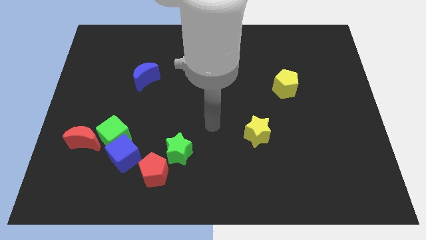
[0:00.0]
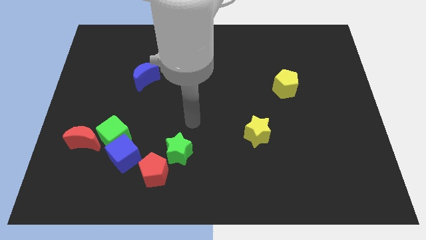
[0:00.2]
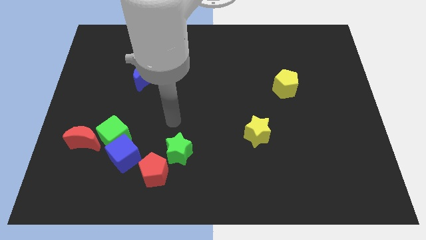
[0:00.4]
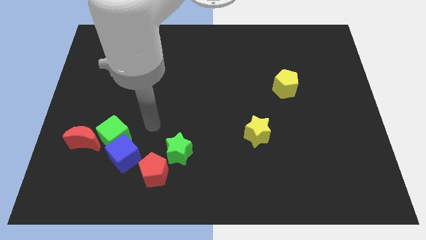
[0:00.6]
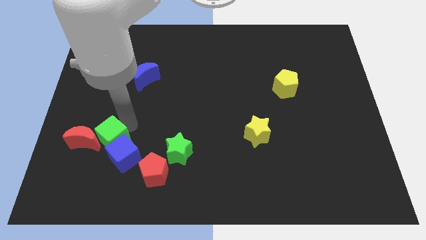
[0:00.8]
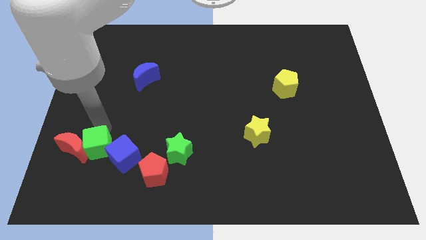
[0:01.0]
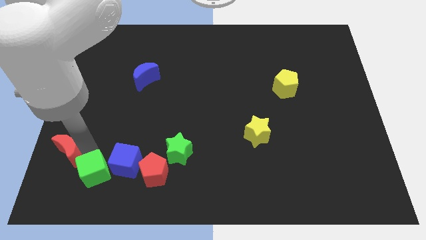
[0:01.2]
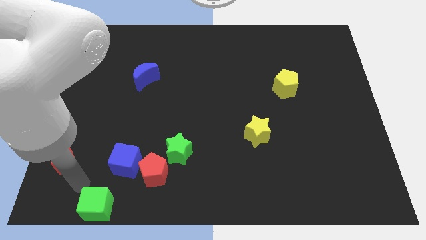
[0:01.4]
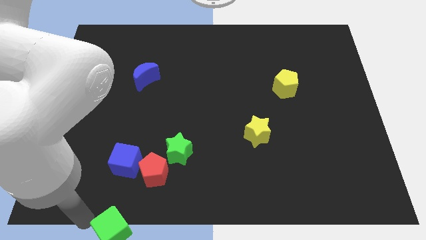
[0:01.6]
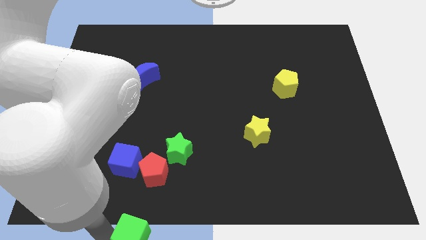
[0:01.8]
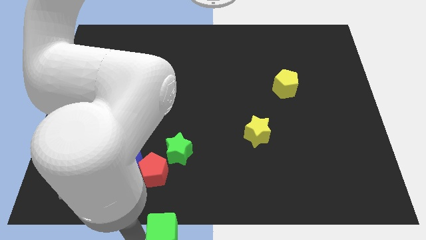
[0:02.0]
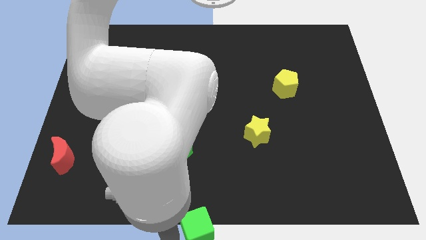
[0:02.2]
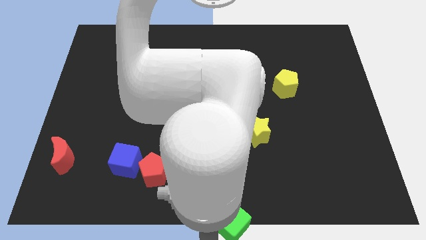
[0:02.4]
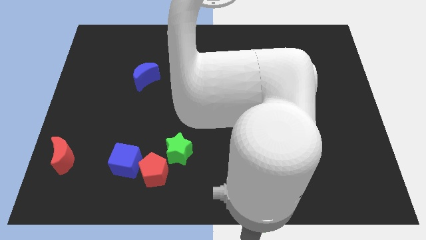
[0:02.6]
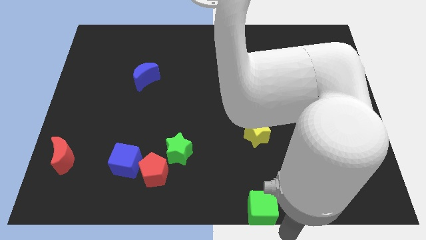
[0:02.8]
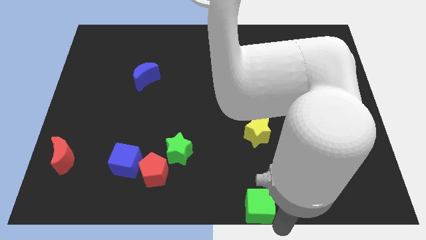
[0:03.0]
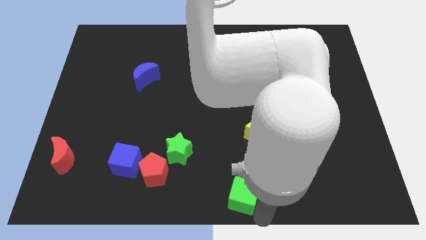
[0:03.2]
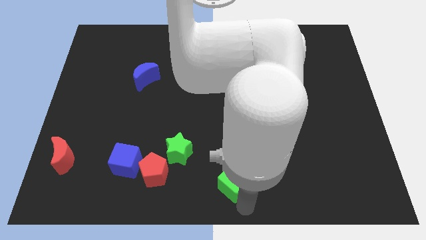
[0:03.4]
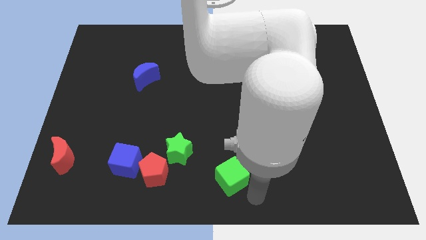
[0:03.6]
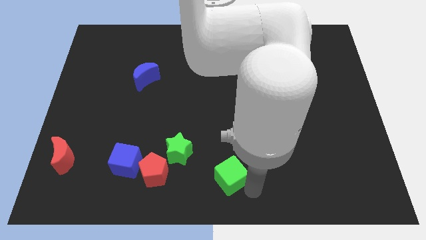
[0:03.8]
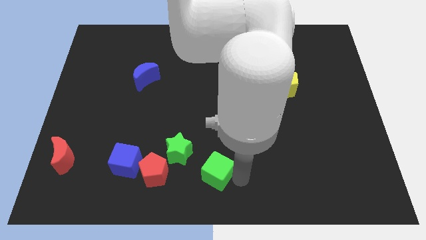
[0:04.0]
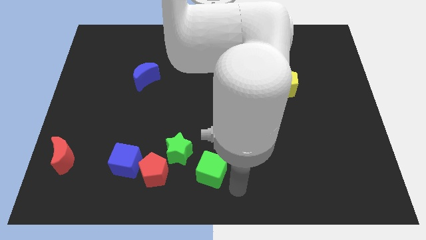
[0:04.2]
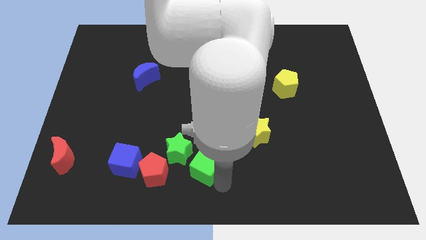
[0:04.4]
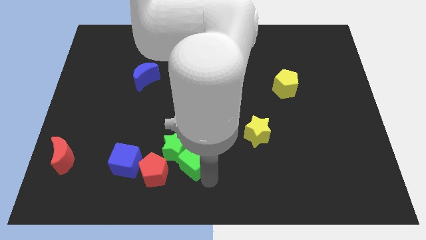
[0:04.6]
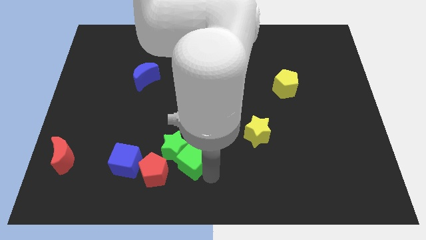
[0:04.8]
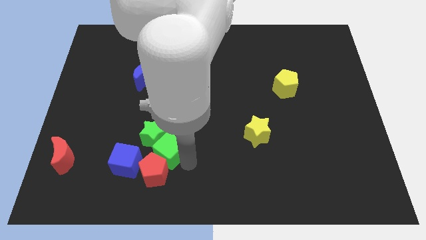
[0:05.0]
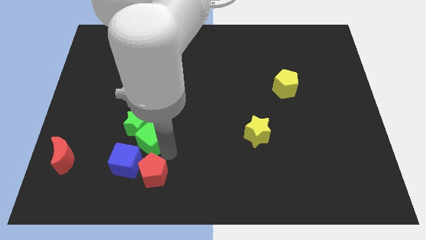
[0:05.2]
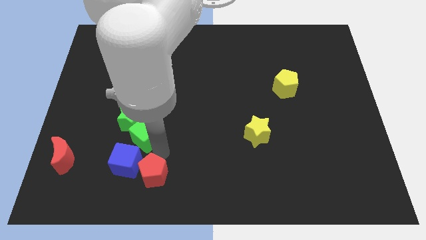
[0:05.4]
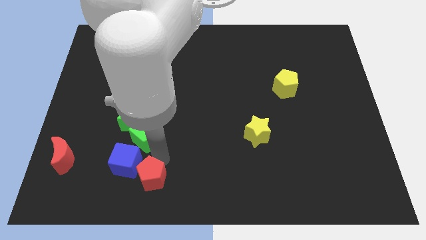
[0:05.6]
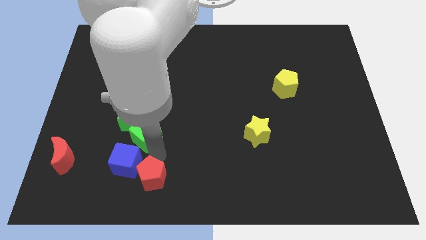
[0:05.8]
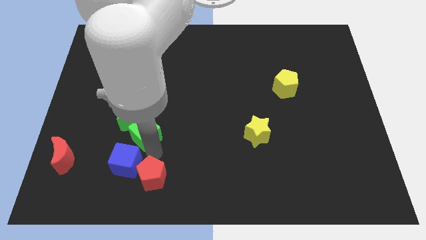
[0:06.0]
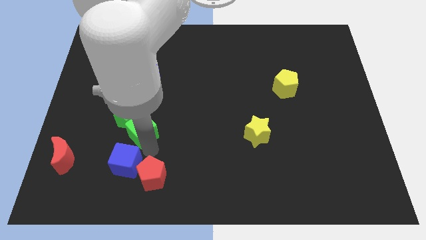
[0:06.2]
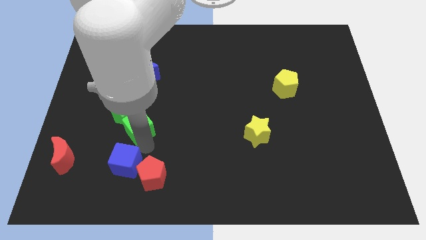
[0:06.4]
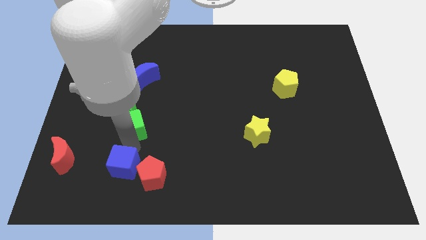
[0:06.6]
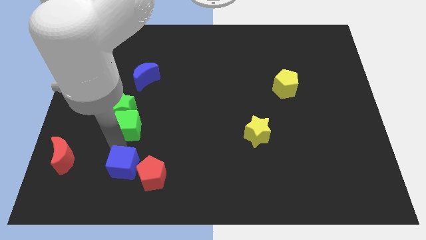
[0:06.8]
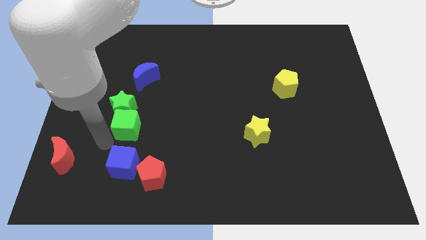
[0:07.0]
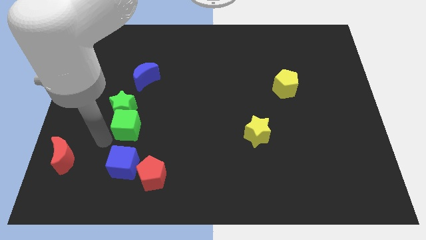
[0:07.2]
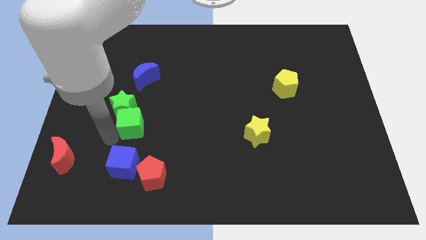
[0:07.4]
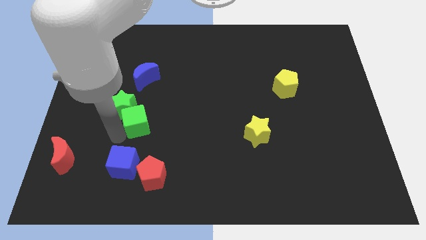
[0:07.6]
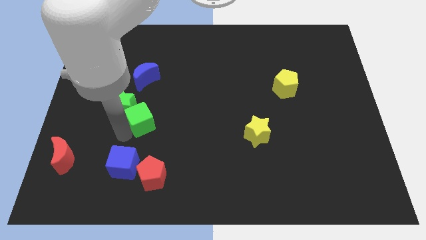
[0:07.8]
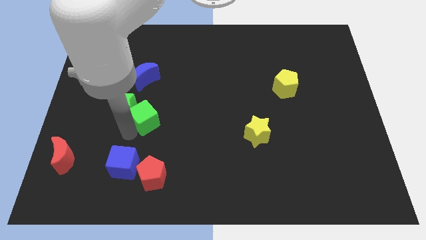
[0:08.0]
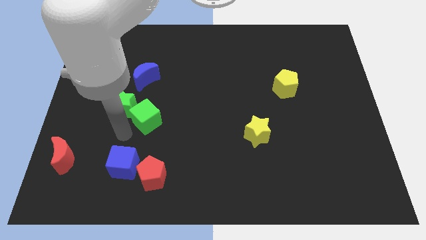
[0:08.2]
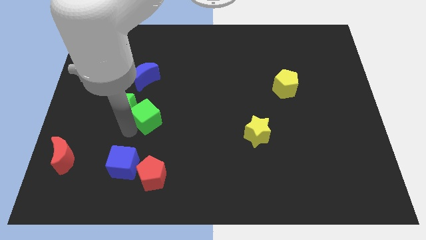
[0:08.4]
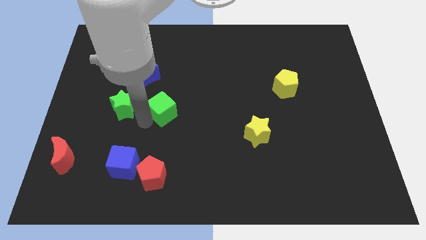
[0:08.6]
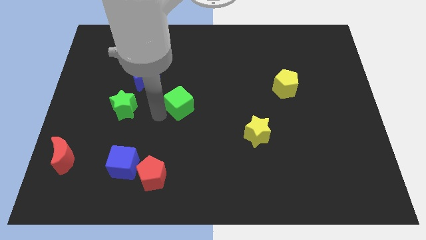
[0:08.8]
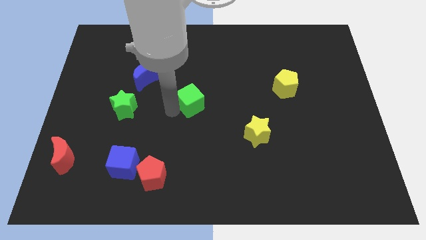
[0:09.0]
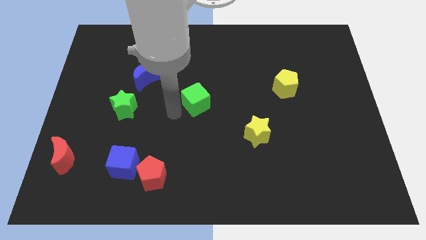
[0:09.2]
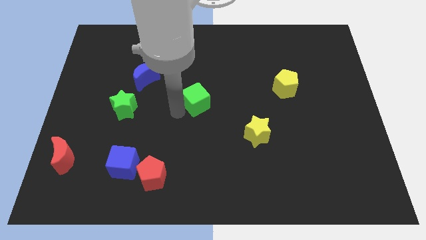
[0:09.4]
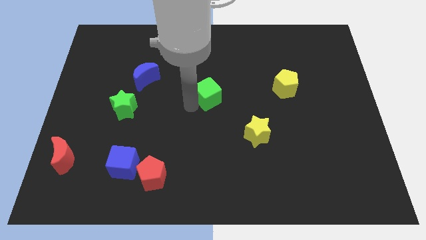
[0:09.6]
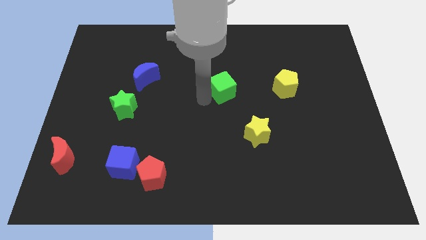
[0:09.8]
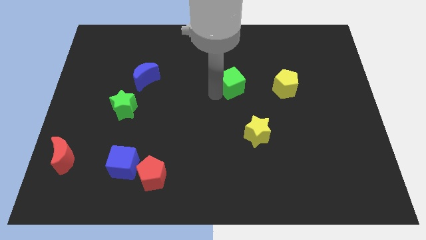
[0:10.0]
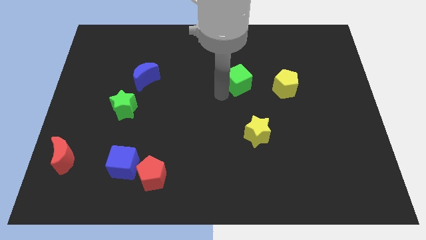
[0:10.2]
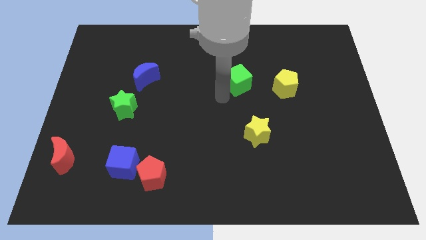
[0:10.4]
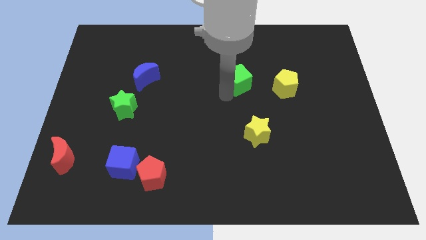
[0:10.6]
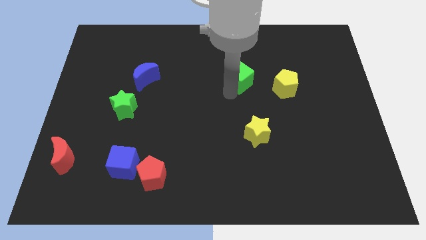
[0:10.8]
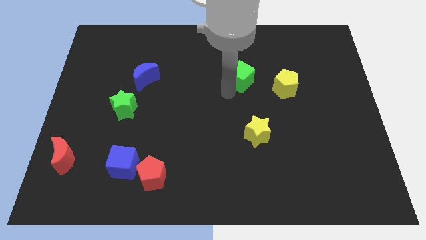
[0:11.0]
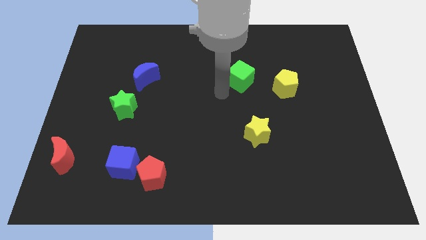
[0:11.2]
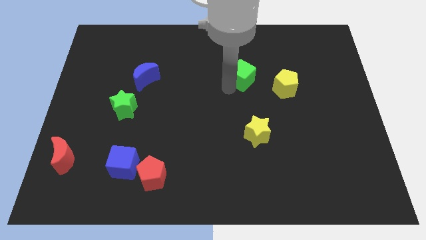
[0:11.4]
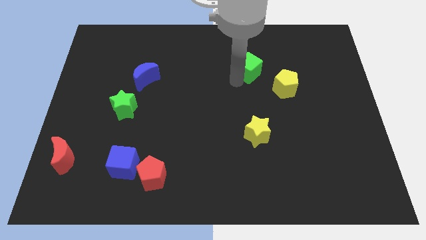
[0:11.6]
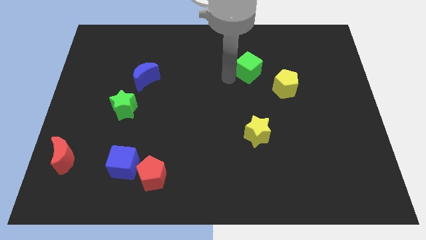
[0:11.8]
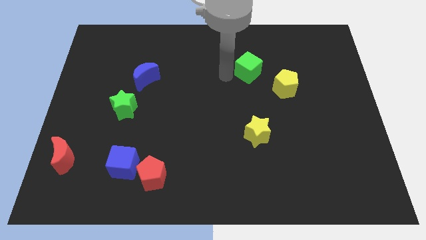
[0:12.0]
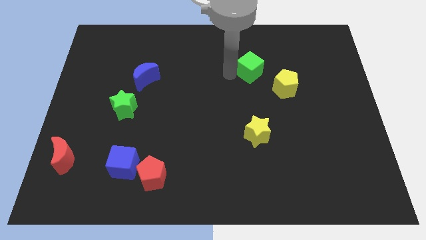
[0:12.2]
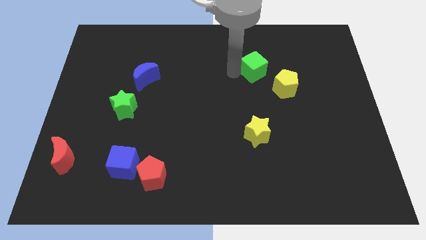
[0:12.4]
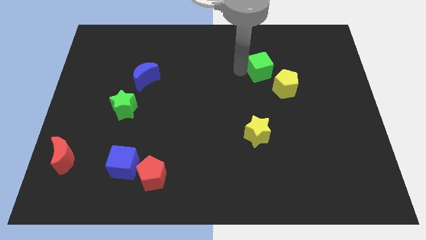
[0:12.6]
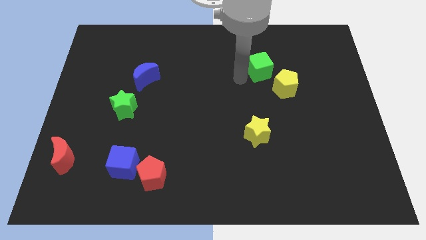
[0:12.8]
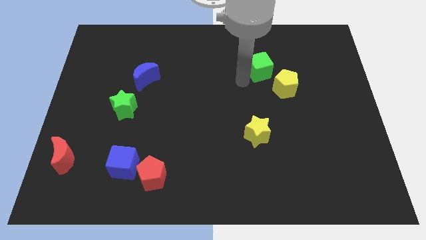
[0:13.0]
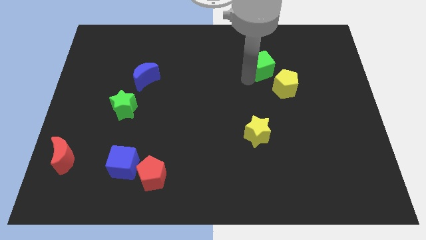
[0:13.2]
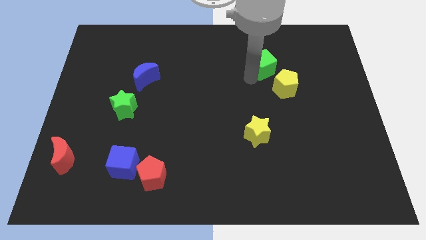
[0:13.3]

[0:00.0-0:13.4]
push the green cube to the top side of the yellow pentagon
